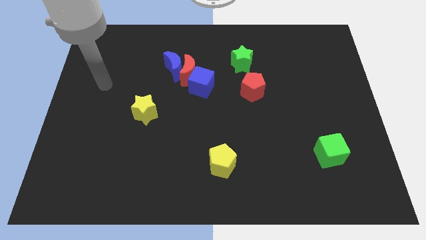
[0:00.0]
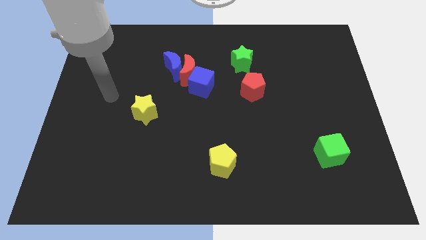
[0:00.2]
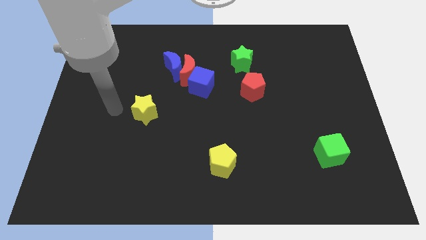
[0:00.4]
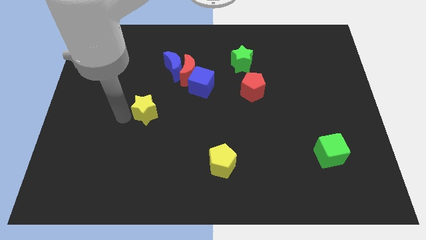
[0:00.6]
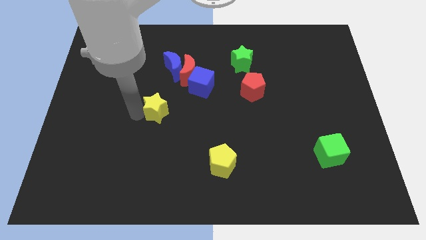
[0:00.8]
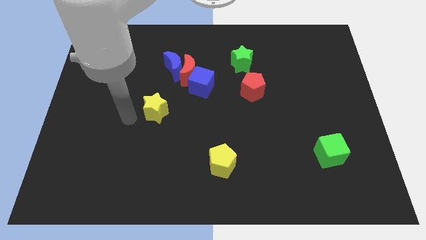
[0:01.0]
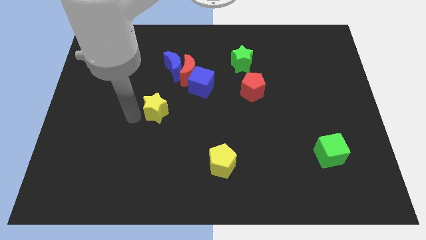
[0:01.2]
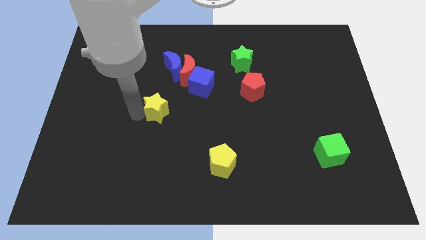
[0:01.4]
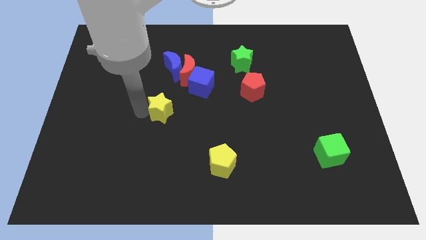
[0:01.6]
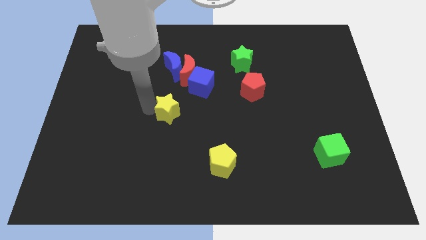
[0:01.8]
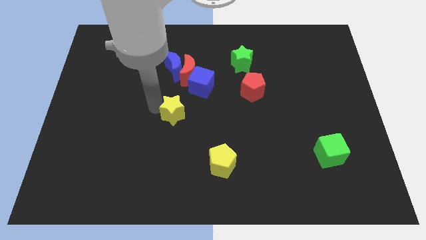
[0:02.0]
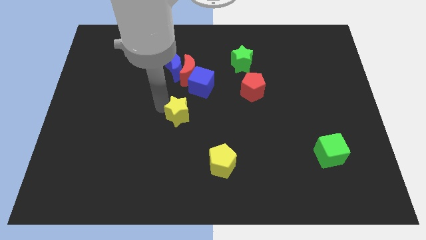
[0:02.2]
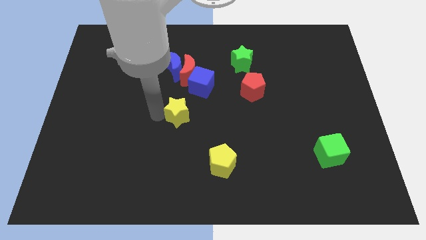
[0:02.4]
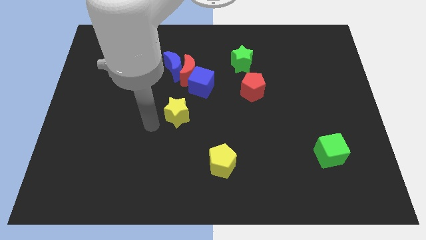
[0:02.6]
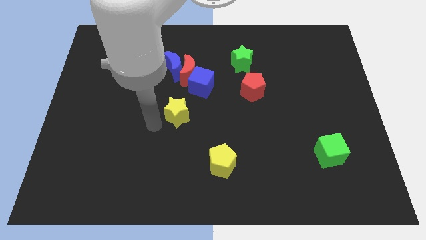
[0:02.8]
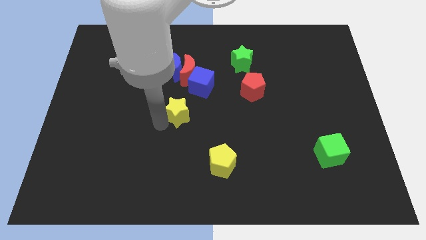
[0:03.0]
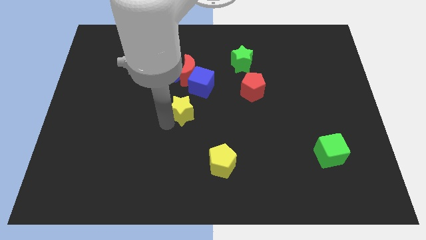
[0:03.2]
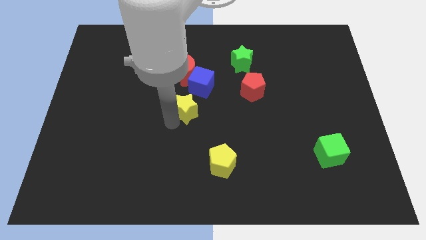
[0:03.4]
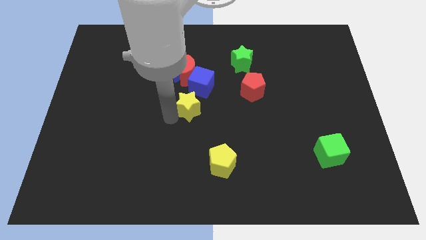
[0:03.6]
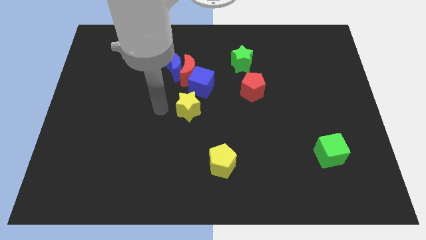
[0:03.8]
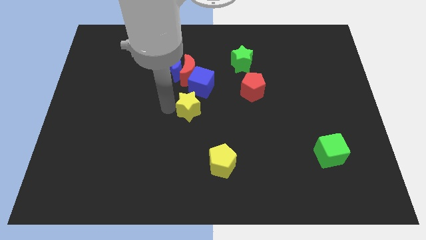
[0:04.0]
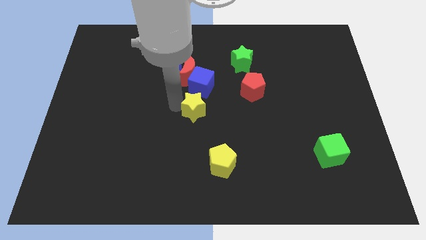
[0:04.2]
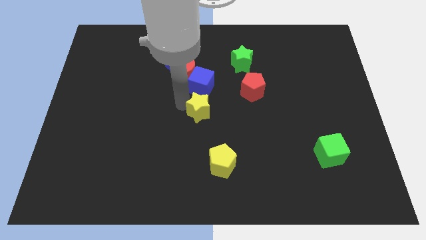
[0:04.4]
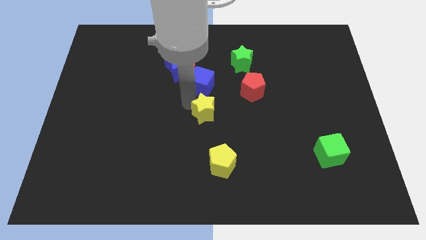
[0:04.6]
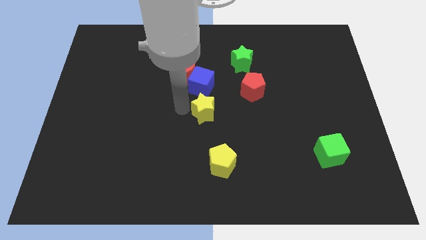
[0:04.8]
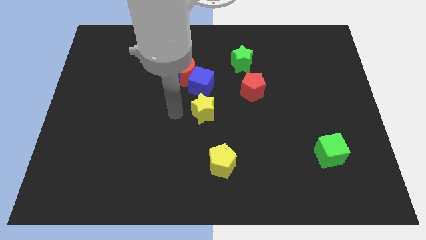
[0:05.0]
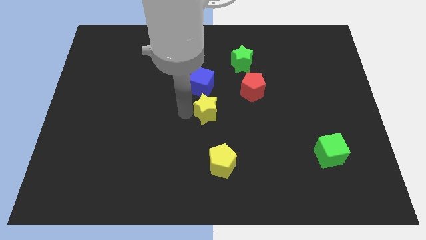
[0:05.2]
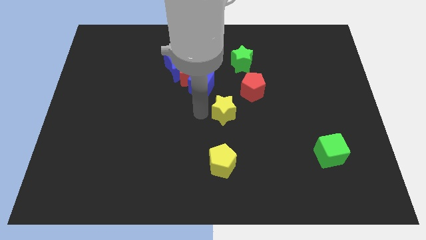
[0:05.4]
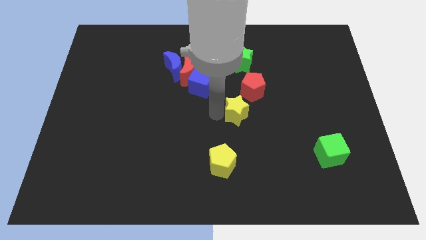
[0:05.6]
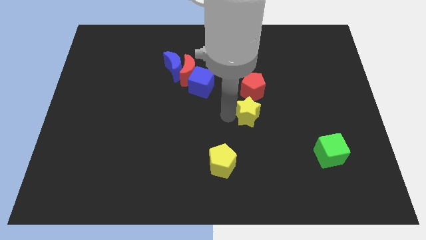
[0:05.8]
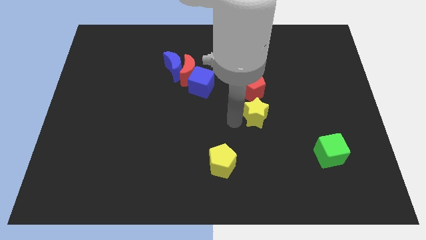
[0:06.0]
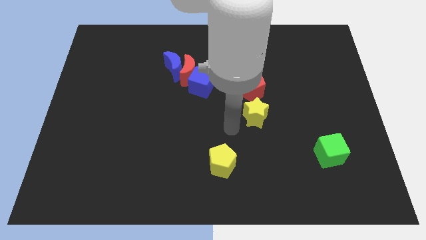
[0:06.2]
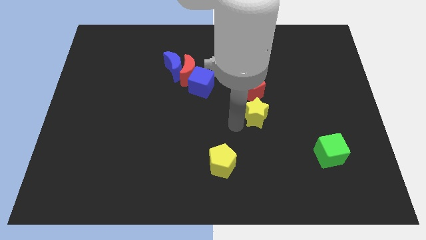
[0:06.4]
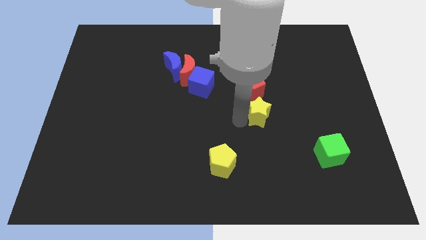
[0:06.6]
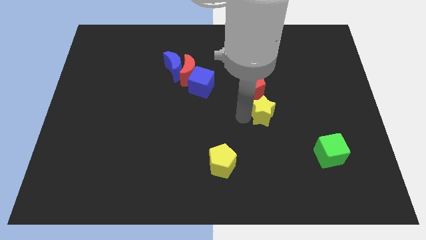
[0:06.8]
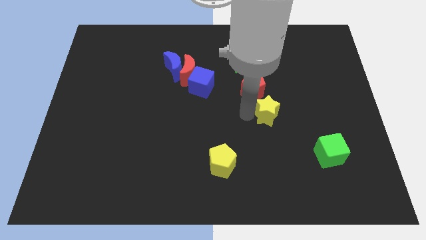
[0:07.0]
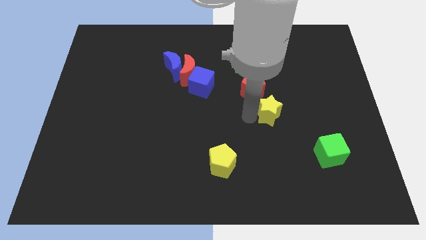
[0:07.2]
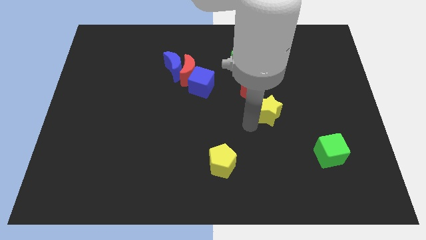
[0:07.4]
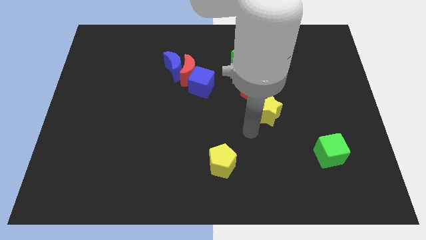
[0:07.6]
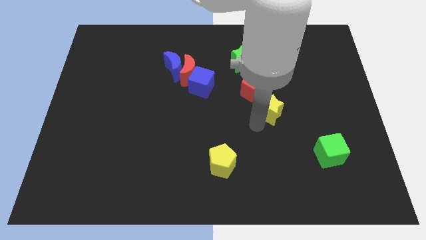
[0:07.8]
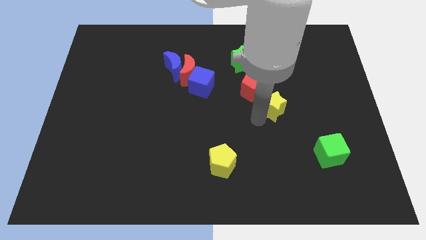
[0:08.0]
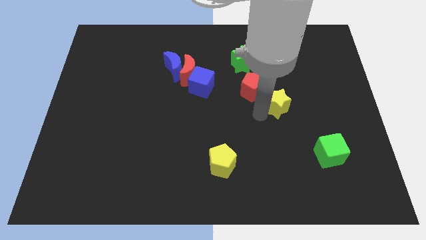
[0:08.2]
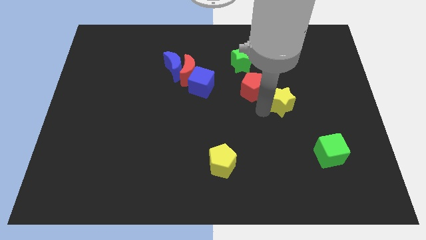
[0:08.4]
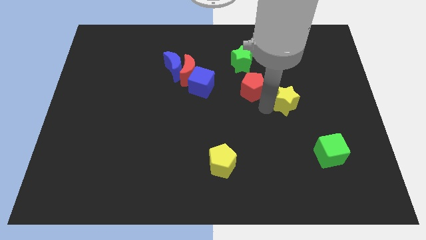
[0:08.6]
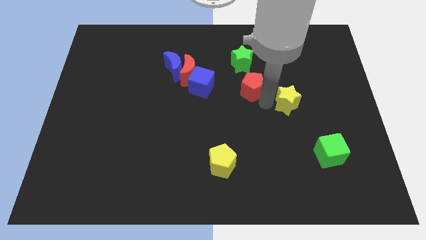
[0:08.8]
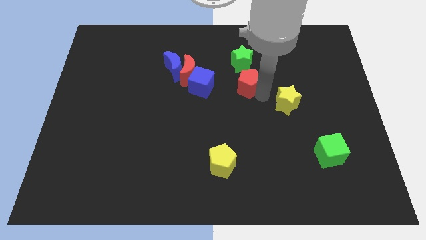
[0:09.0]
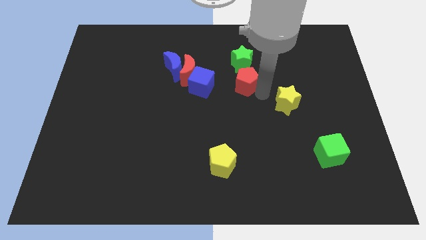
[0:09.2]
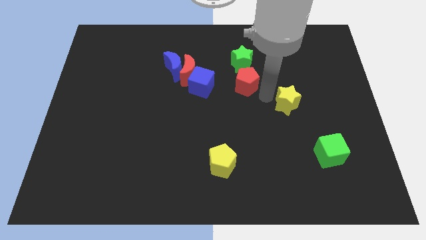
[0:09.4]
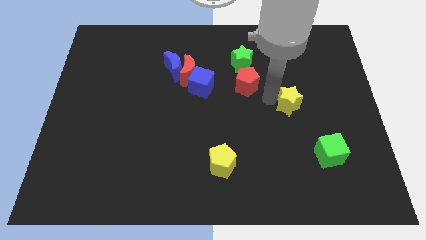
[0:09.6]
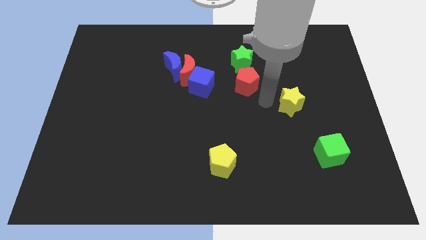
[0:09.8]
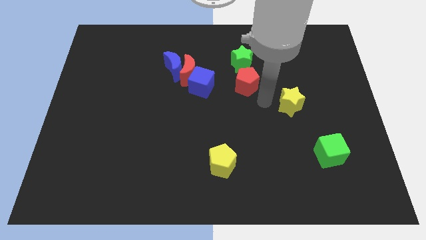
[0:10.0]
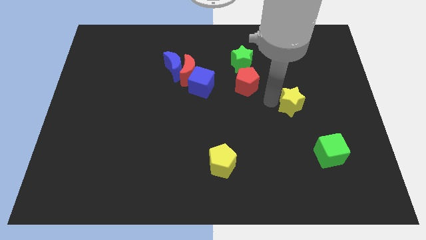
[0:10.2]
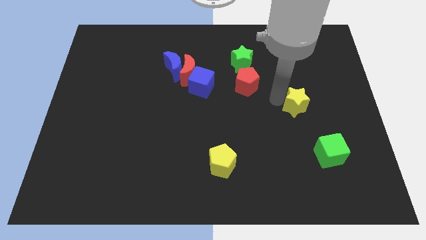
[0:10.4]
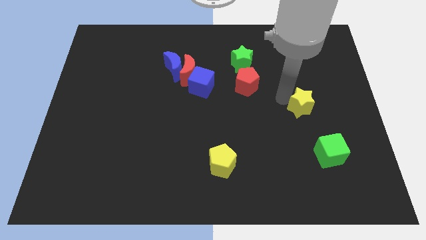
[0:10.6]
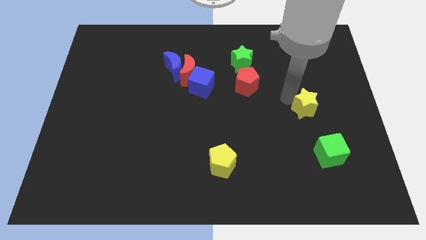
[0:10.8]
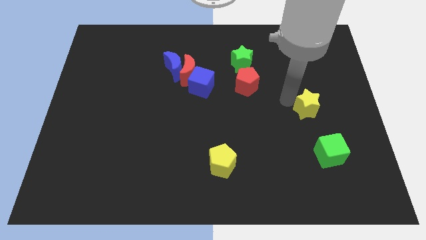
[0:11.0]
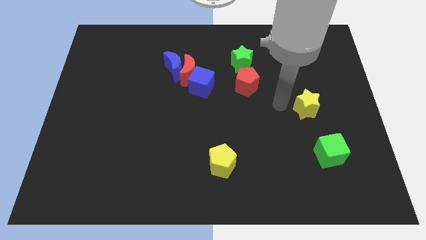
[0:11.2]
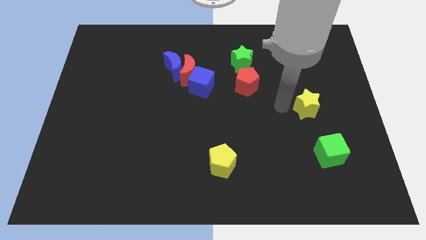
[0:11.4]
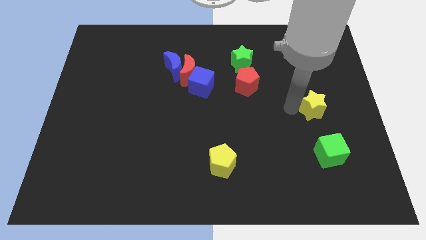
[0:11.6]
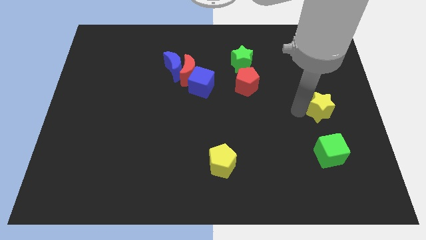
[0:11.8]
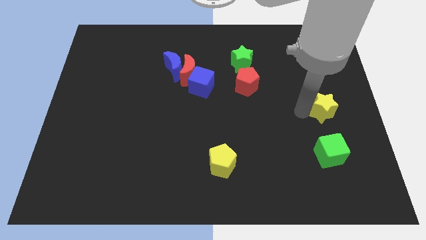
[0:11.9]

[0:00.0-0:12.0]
push the yellow star to the right side of the board

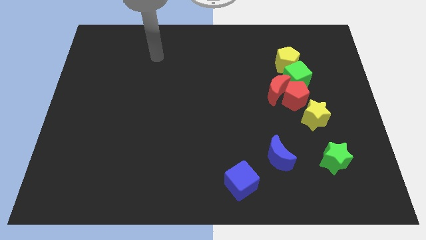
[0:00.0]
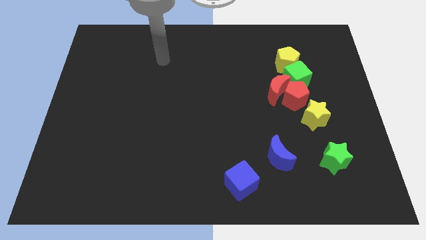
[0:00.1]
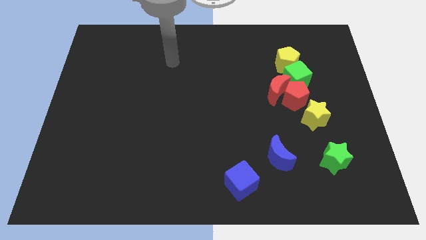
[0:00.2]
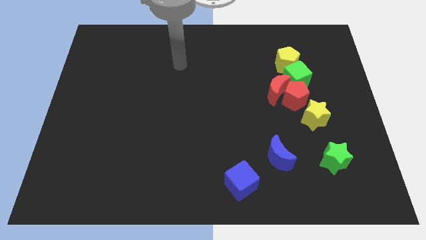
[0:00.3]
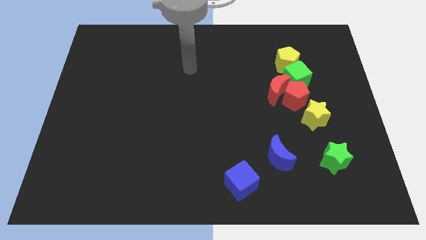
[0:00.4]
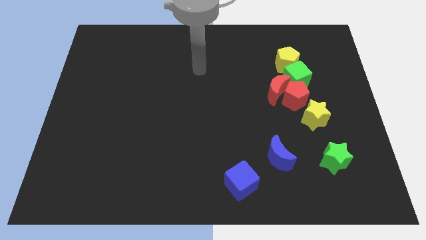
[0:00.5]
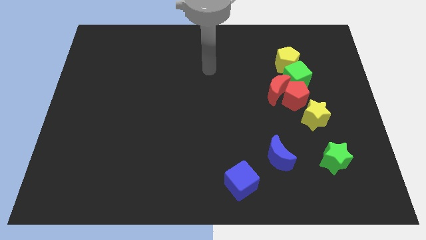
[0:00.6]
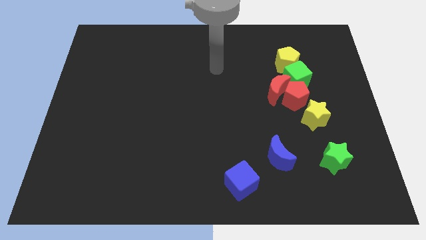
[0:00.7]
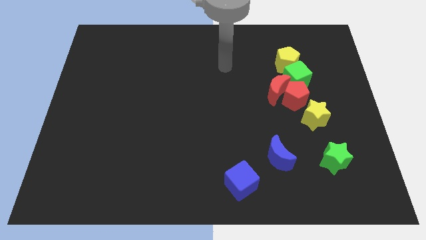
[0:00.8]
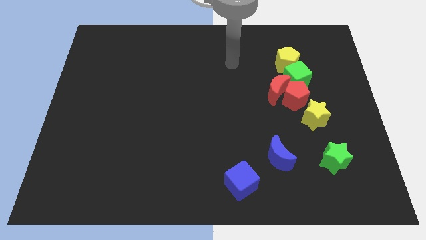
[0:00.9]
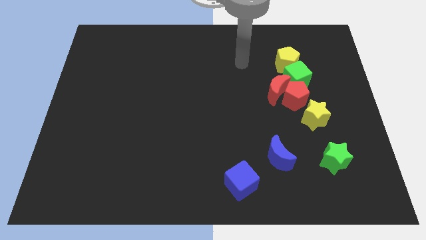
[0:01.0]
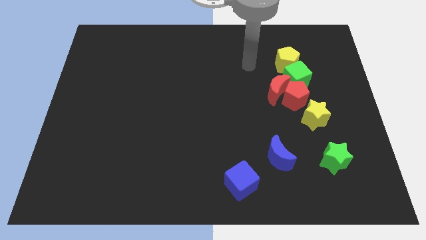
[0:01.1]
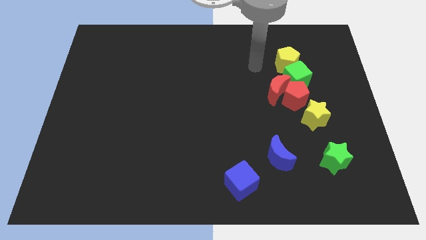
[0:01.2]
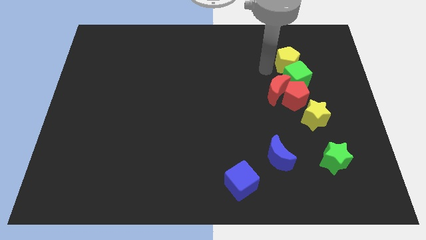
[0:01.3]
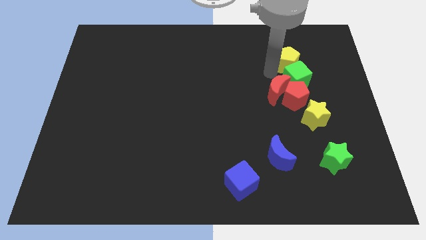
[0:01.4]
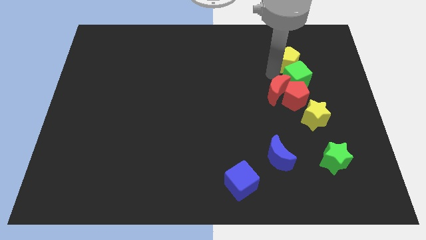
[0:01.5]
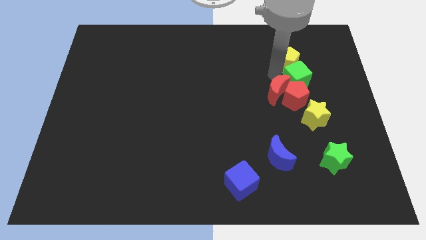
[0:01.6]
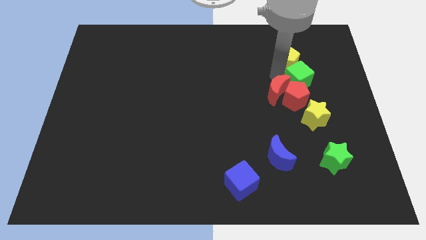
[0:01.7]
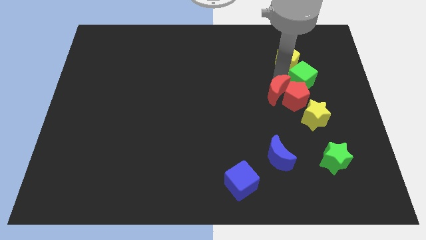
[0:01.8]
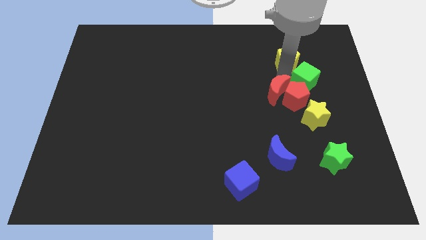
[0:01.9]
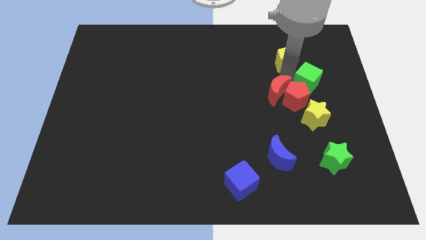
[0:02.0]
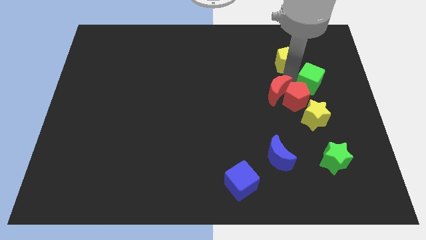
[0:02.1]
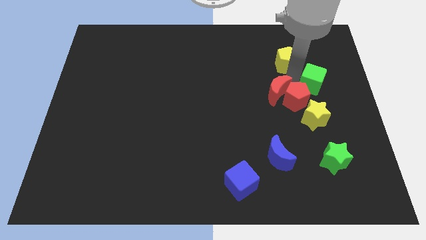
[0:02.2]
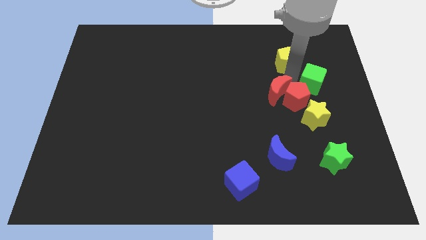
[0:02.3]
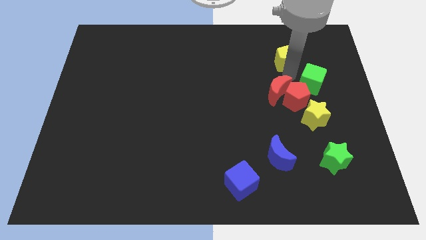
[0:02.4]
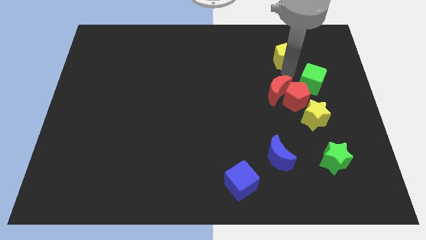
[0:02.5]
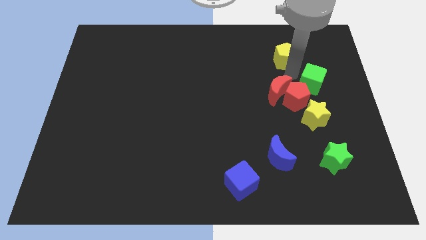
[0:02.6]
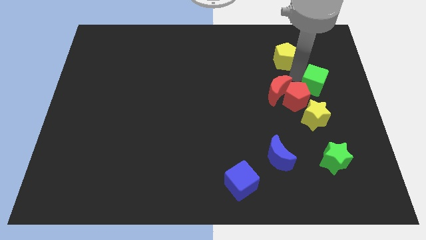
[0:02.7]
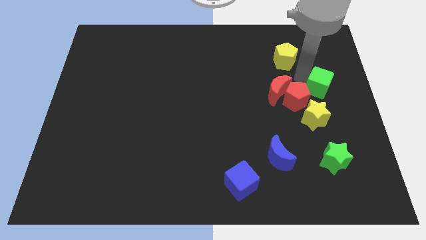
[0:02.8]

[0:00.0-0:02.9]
slide the green cube to the right side
